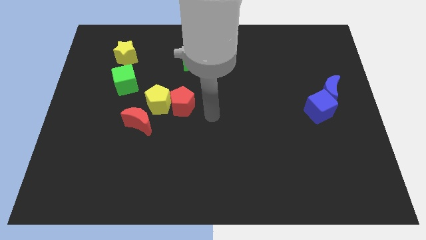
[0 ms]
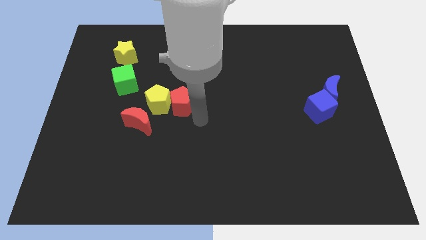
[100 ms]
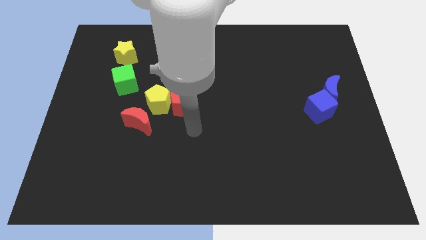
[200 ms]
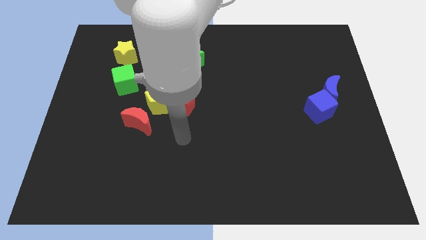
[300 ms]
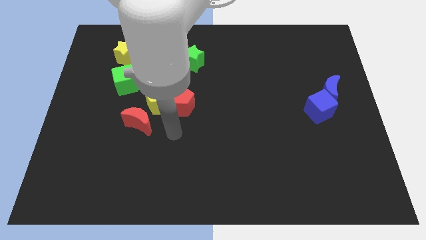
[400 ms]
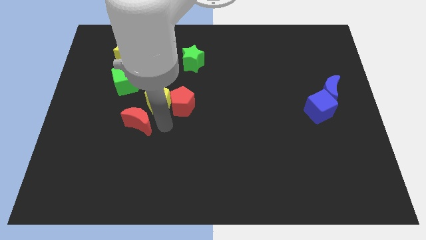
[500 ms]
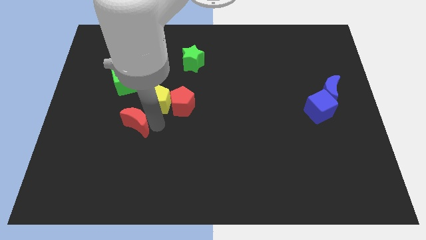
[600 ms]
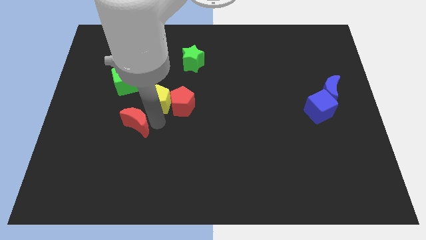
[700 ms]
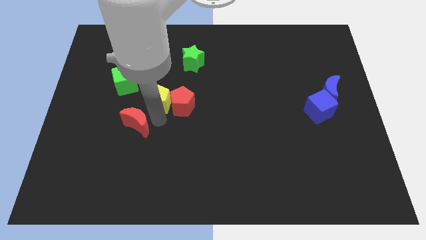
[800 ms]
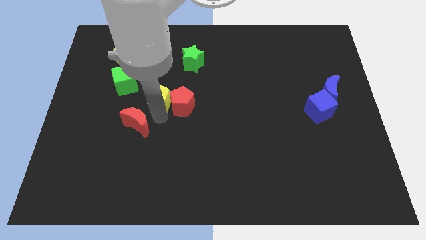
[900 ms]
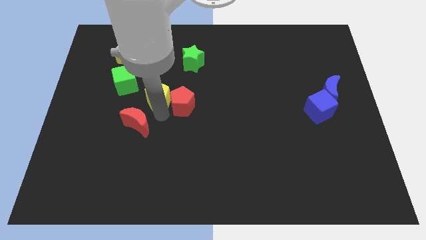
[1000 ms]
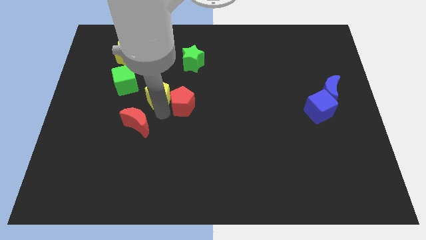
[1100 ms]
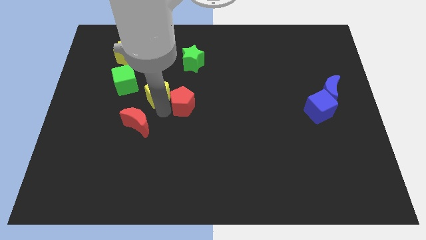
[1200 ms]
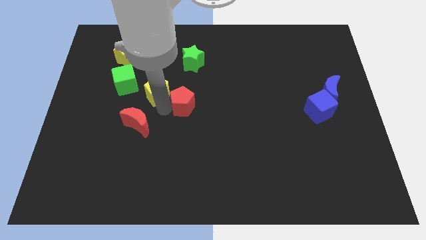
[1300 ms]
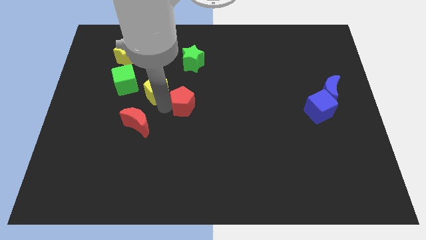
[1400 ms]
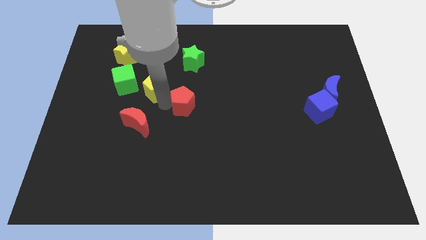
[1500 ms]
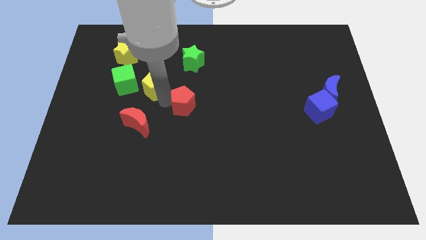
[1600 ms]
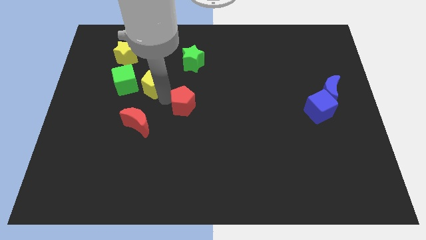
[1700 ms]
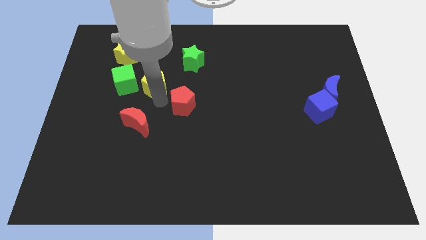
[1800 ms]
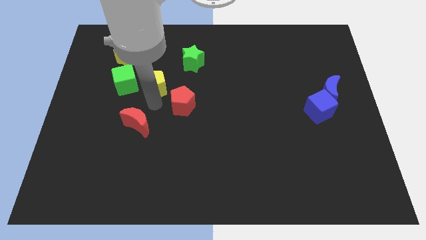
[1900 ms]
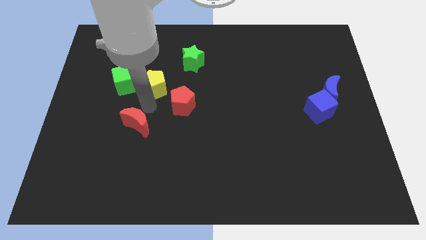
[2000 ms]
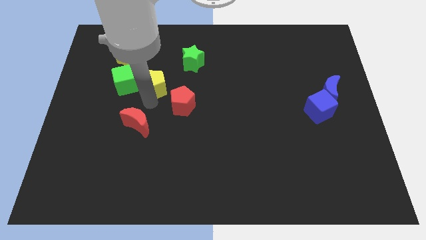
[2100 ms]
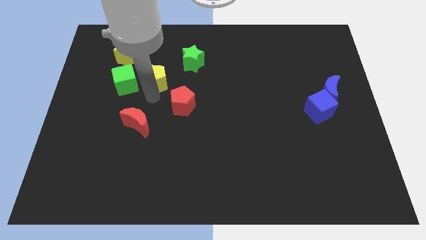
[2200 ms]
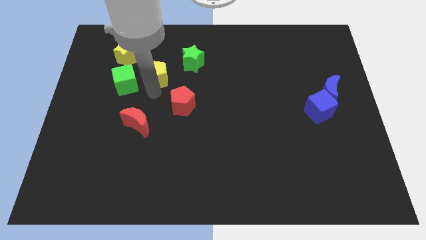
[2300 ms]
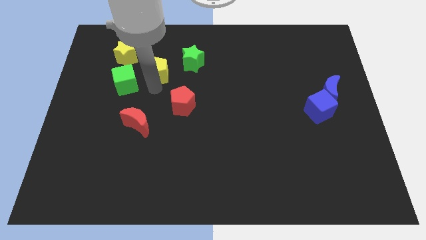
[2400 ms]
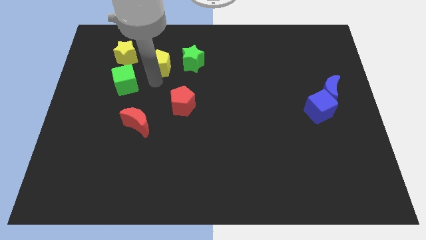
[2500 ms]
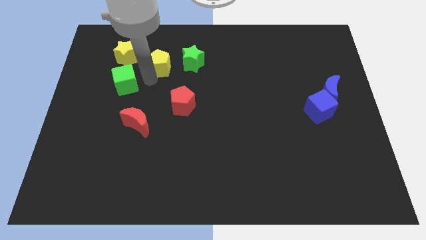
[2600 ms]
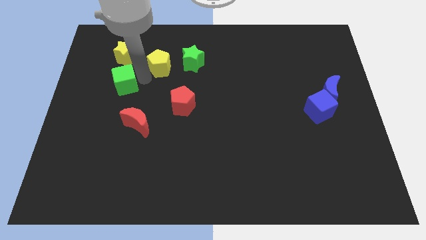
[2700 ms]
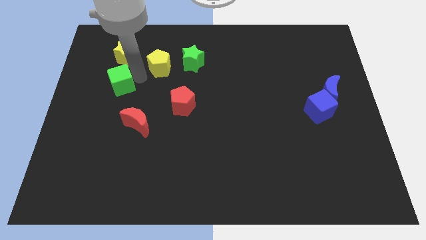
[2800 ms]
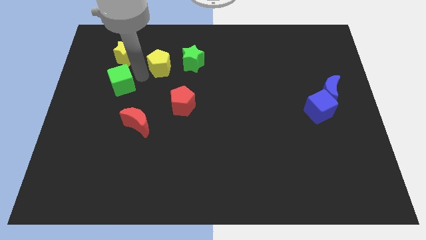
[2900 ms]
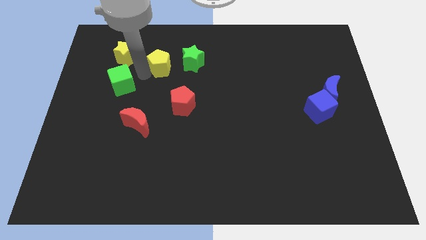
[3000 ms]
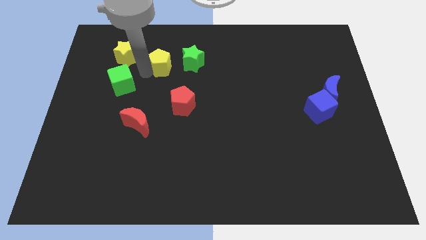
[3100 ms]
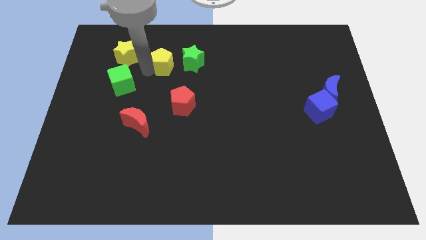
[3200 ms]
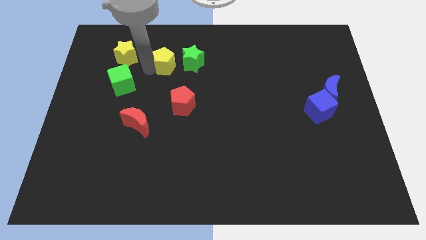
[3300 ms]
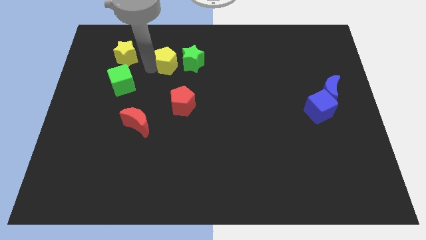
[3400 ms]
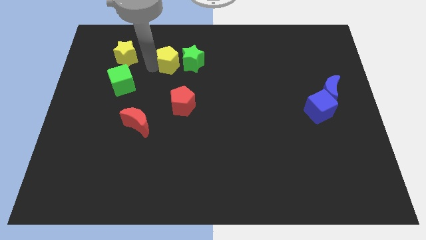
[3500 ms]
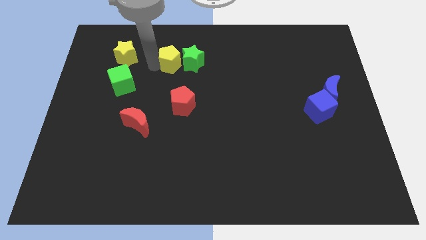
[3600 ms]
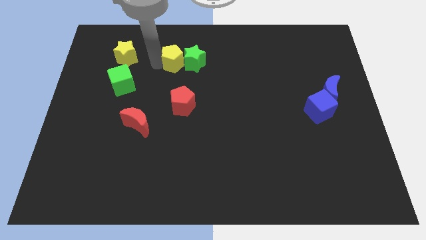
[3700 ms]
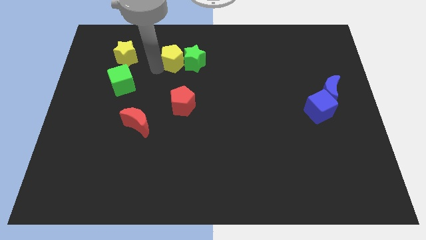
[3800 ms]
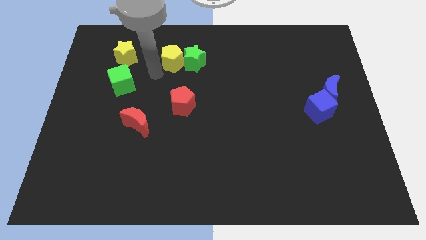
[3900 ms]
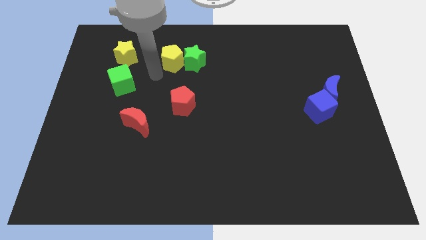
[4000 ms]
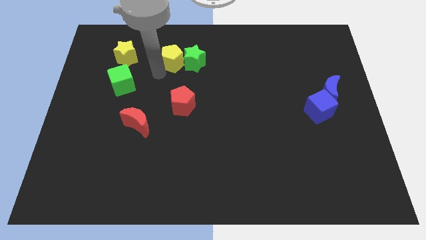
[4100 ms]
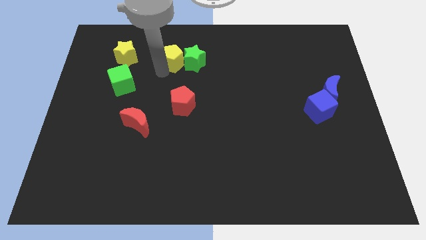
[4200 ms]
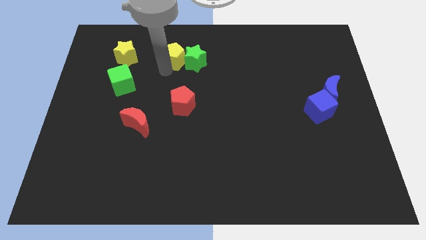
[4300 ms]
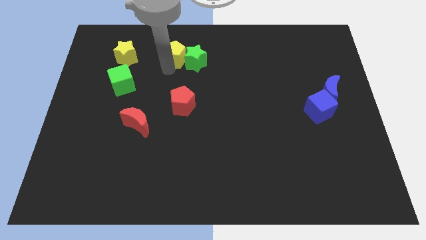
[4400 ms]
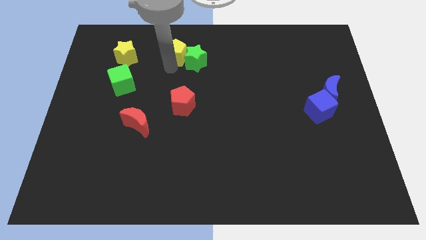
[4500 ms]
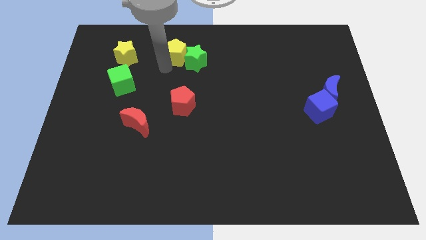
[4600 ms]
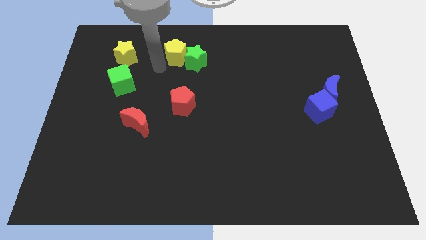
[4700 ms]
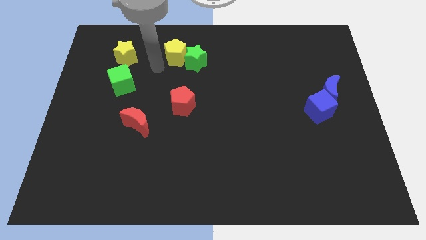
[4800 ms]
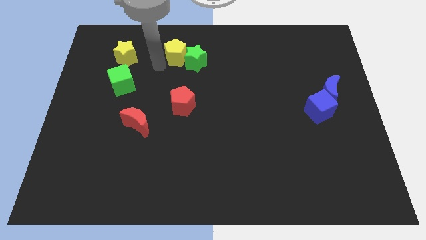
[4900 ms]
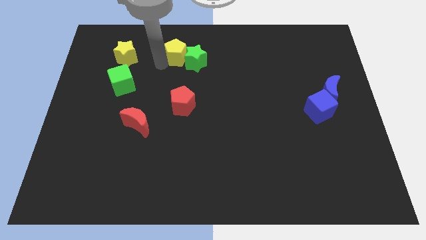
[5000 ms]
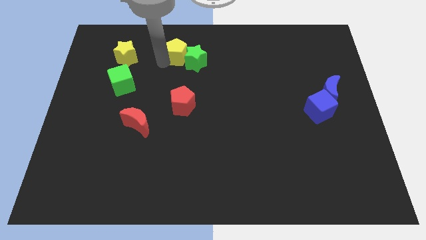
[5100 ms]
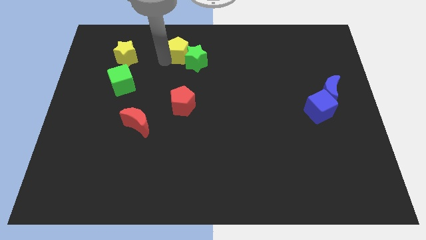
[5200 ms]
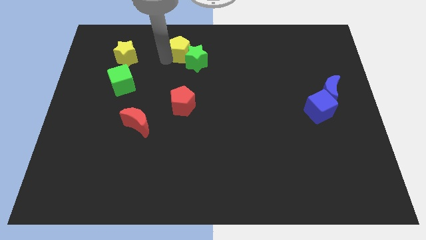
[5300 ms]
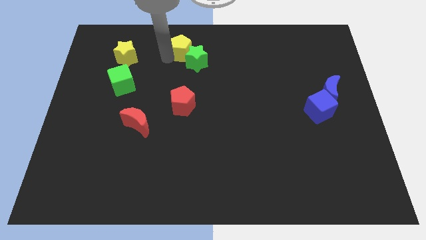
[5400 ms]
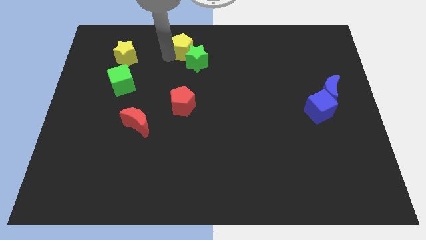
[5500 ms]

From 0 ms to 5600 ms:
slide the yellow pentagon to the towards your base
